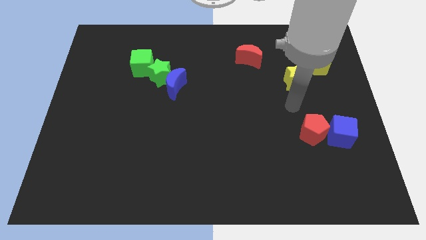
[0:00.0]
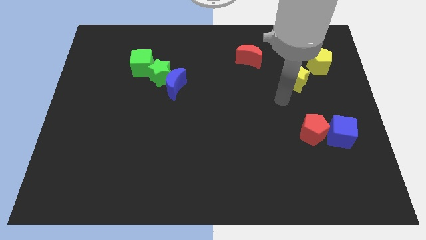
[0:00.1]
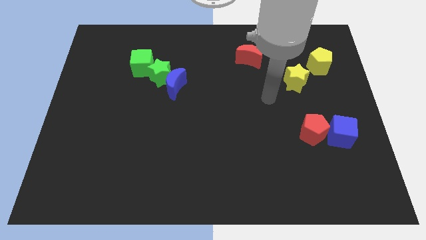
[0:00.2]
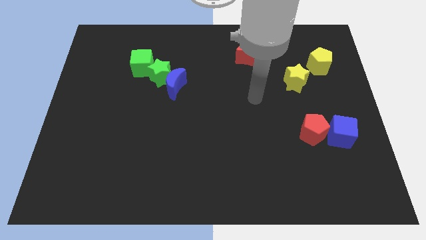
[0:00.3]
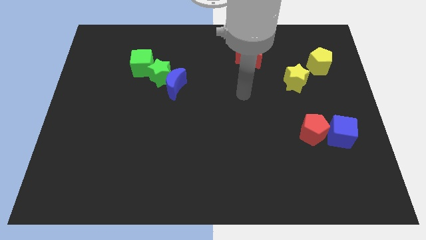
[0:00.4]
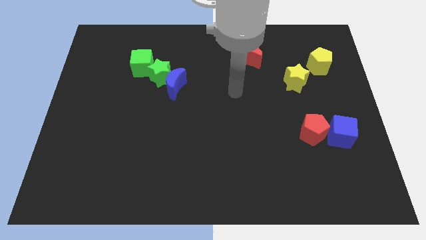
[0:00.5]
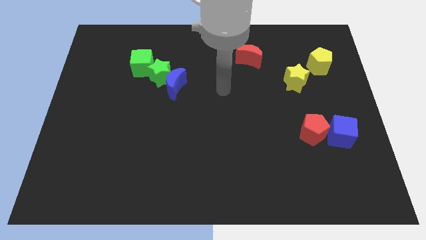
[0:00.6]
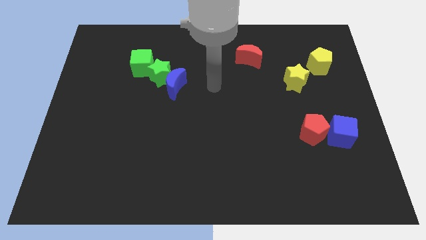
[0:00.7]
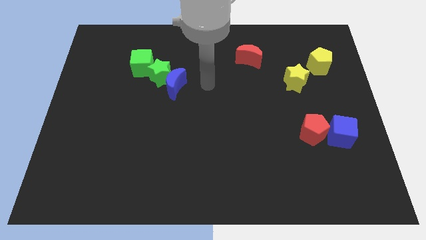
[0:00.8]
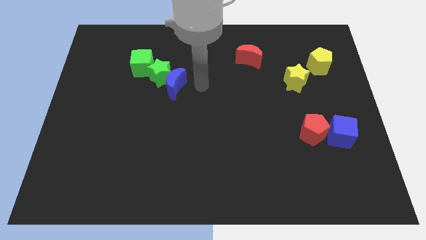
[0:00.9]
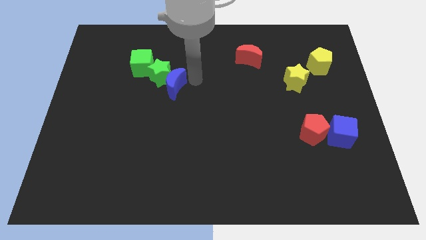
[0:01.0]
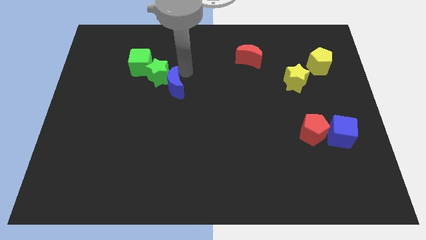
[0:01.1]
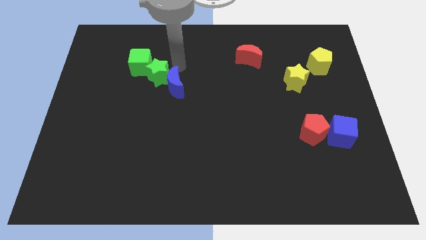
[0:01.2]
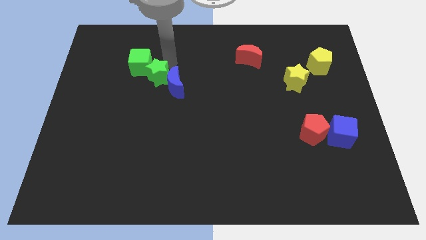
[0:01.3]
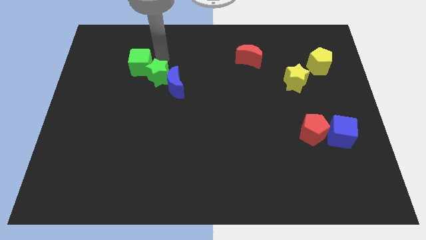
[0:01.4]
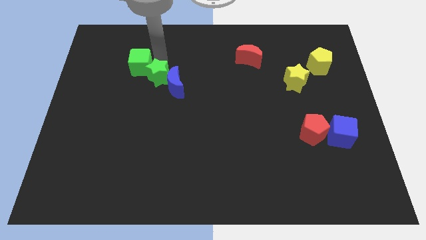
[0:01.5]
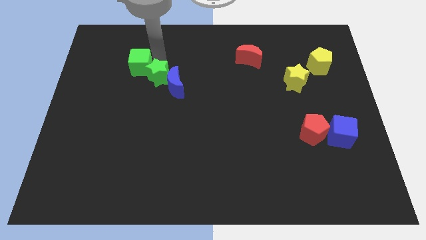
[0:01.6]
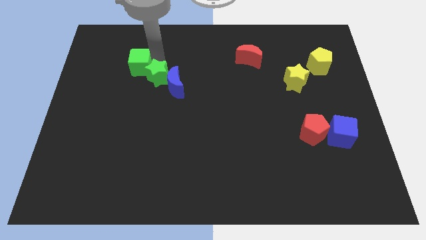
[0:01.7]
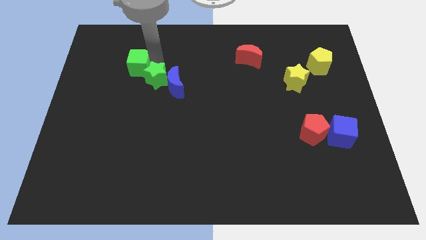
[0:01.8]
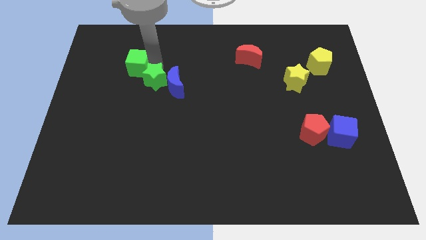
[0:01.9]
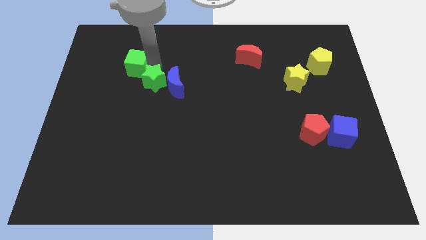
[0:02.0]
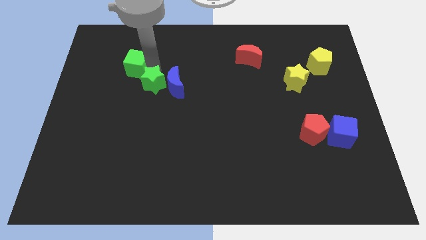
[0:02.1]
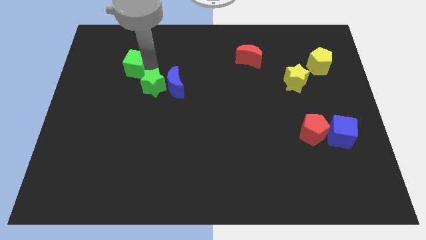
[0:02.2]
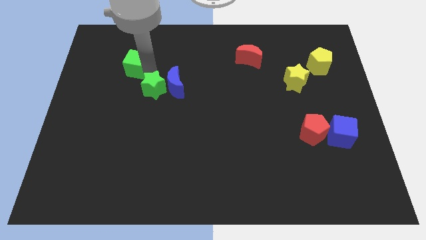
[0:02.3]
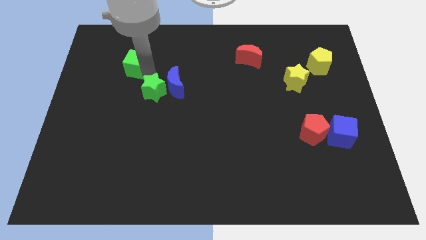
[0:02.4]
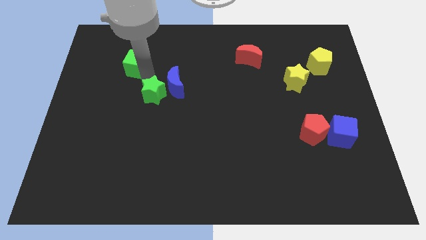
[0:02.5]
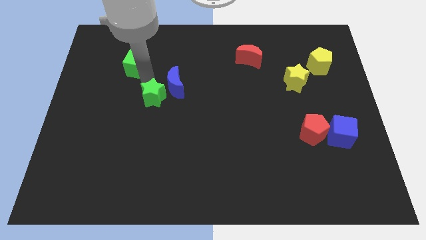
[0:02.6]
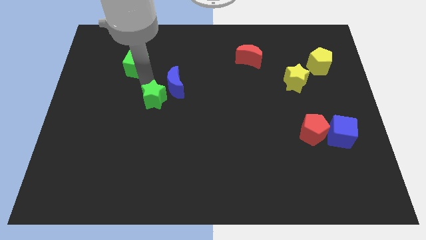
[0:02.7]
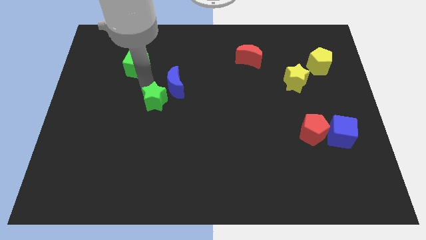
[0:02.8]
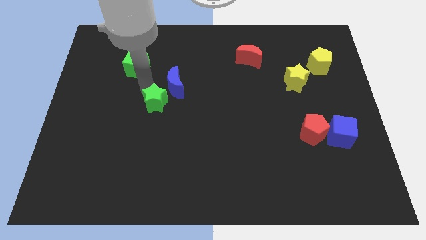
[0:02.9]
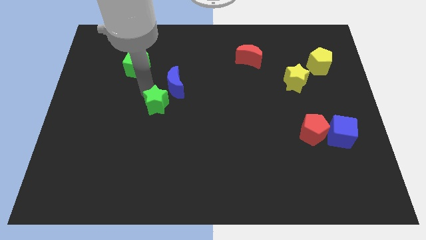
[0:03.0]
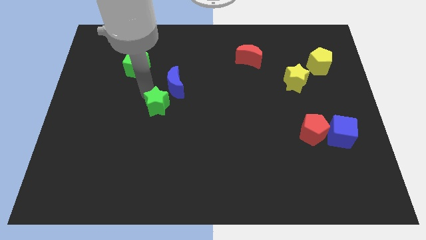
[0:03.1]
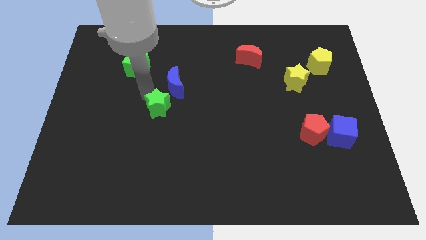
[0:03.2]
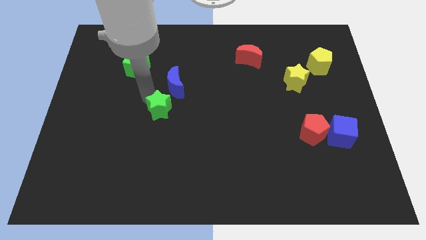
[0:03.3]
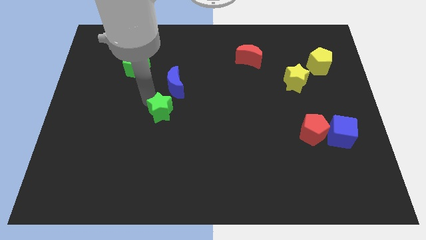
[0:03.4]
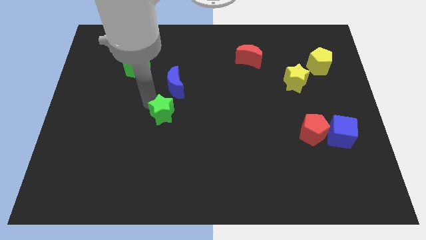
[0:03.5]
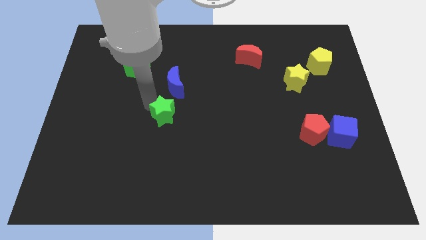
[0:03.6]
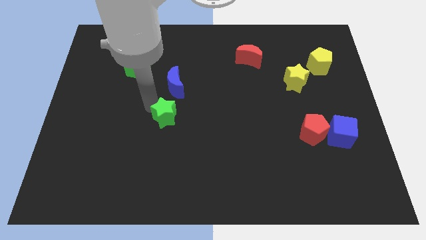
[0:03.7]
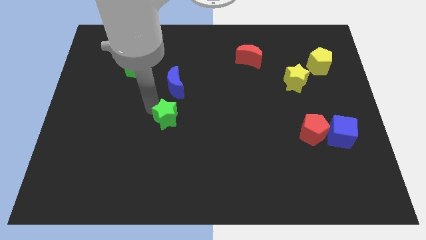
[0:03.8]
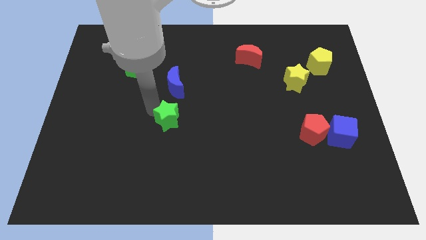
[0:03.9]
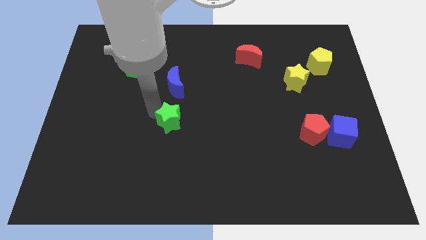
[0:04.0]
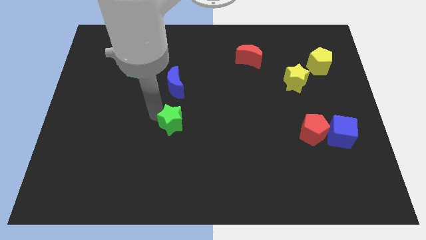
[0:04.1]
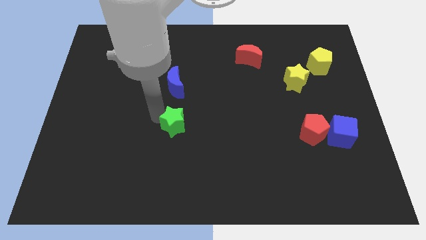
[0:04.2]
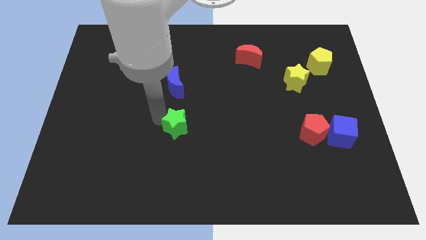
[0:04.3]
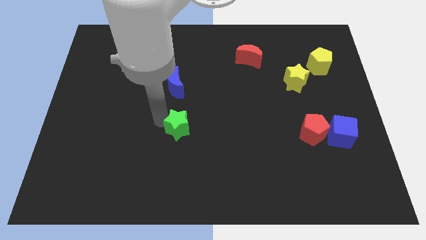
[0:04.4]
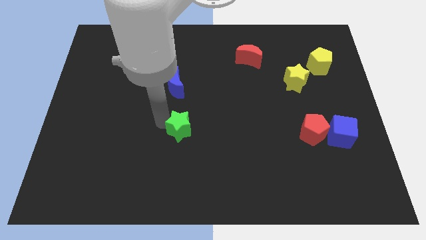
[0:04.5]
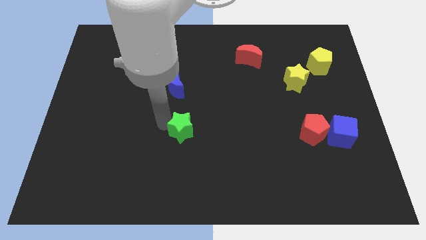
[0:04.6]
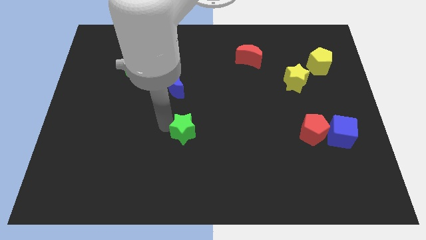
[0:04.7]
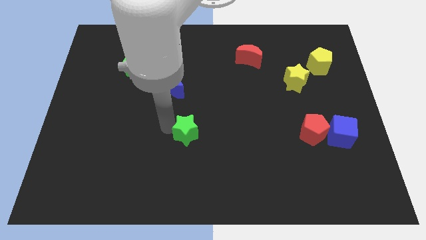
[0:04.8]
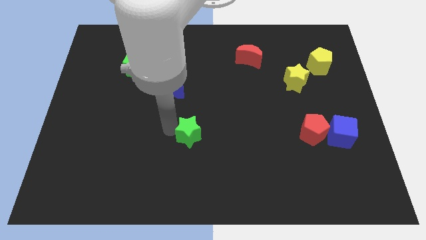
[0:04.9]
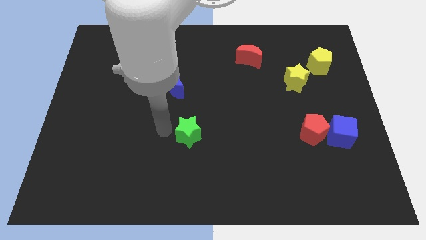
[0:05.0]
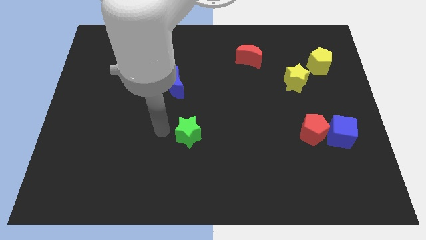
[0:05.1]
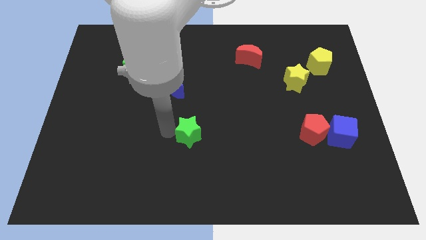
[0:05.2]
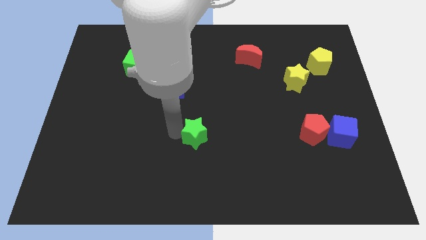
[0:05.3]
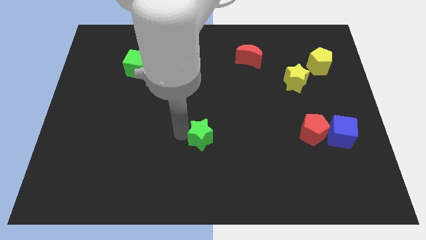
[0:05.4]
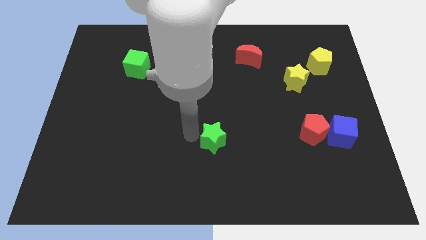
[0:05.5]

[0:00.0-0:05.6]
move the green star downwards and right

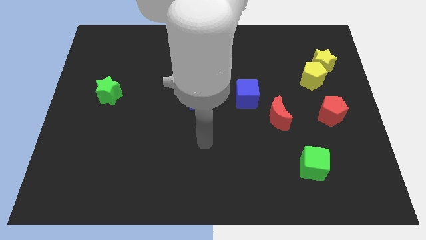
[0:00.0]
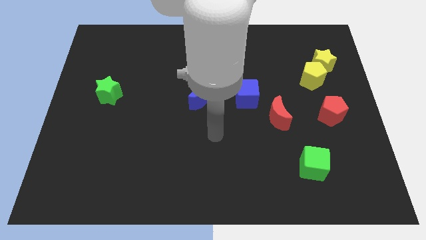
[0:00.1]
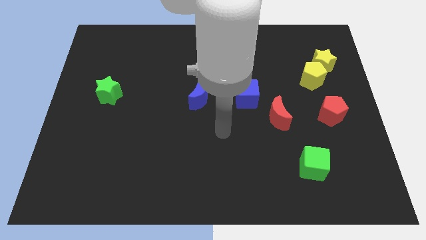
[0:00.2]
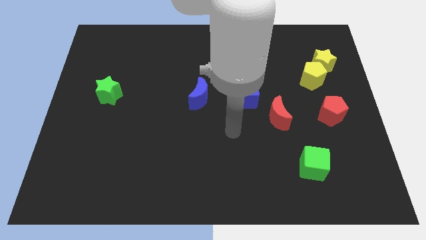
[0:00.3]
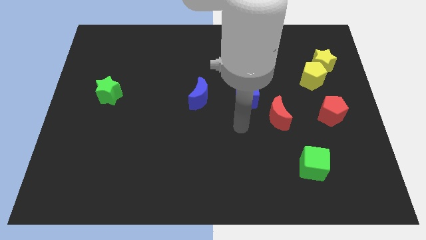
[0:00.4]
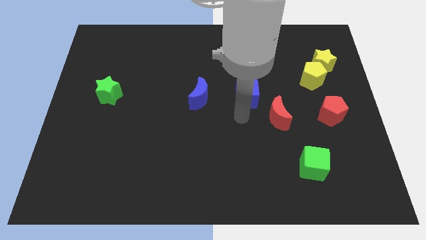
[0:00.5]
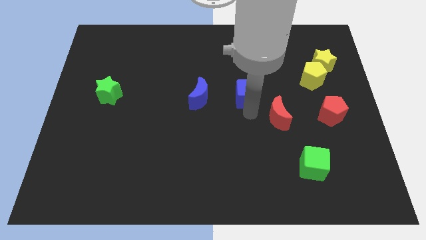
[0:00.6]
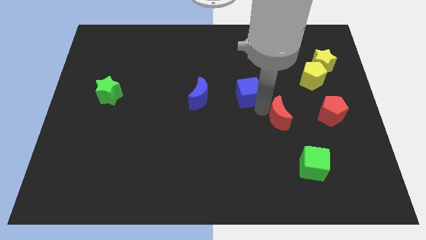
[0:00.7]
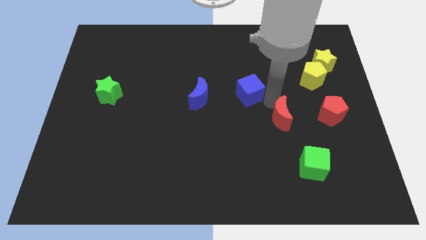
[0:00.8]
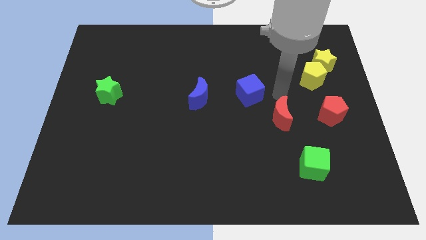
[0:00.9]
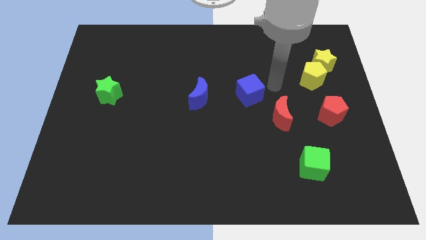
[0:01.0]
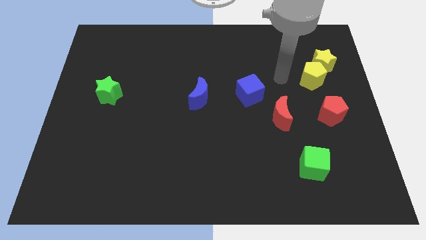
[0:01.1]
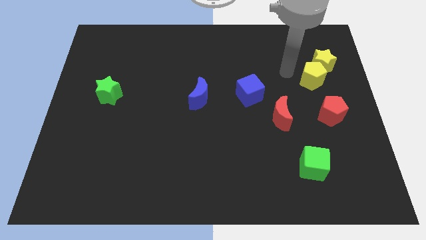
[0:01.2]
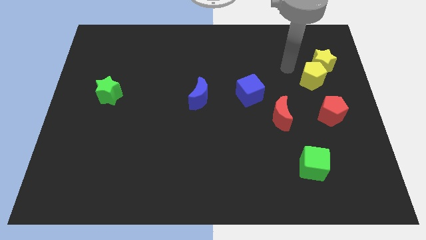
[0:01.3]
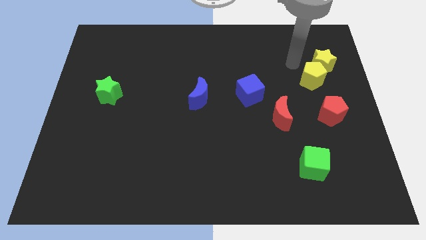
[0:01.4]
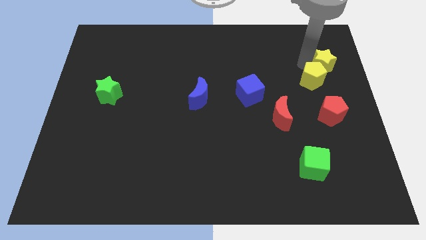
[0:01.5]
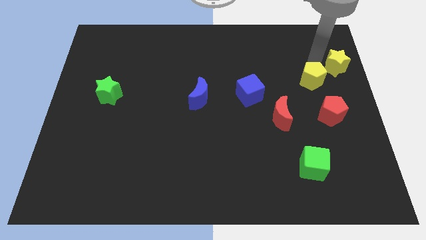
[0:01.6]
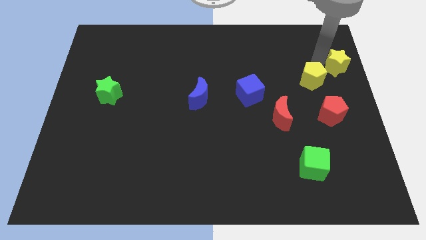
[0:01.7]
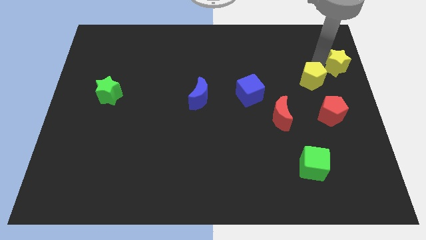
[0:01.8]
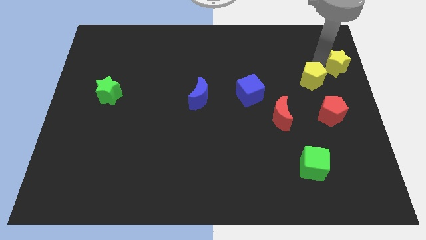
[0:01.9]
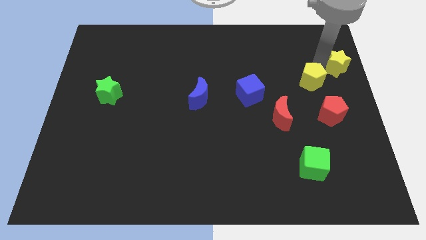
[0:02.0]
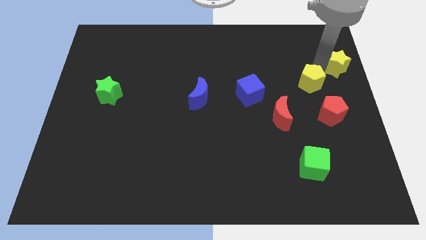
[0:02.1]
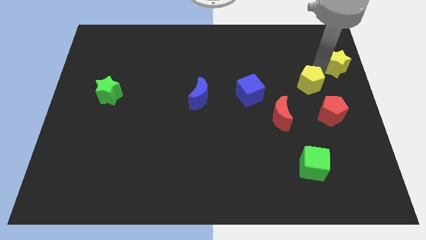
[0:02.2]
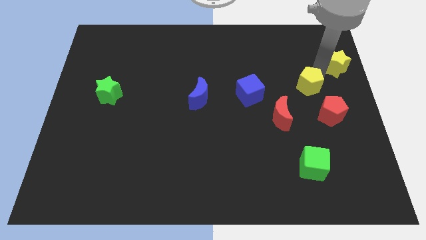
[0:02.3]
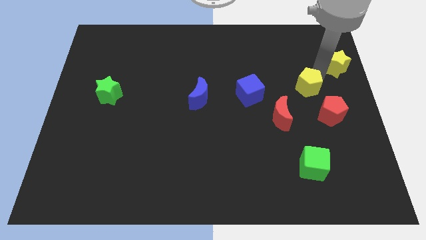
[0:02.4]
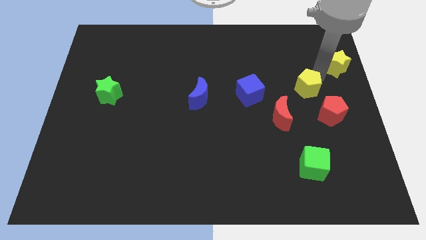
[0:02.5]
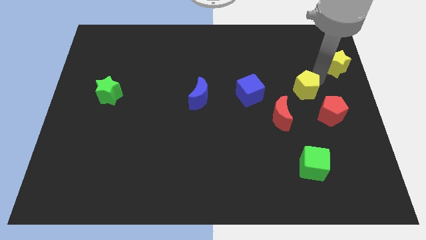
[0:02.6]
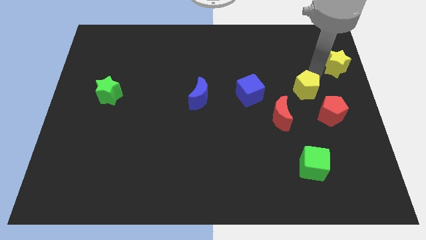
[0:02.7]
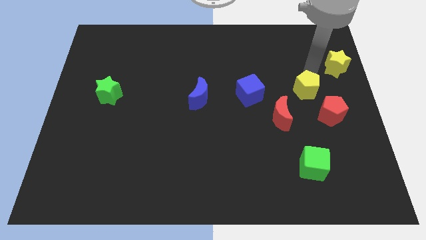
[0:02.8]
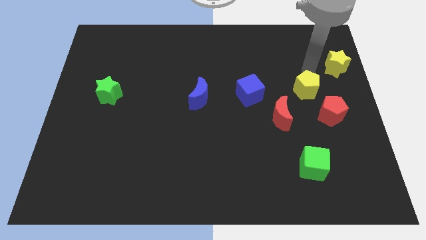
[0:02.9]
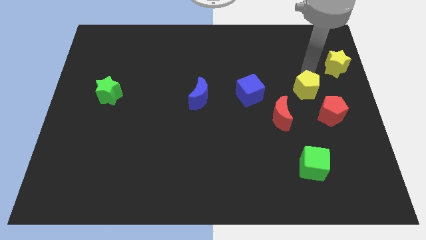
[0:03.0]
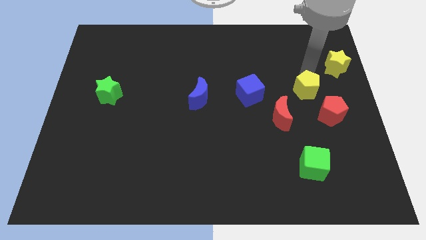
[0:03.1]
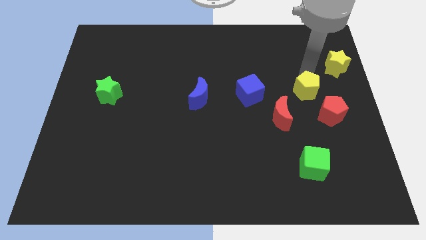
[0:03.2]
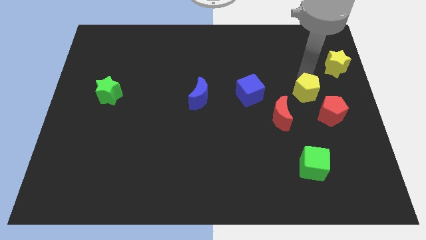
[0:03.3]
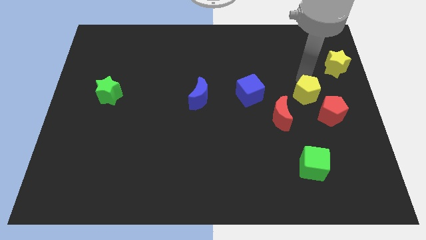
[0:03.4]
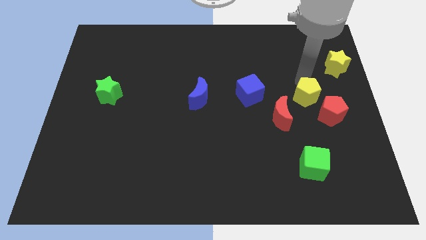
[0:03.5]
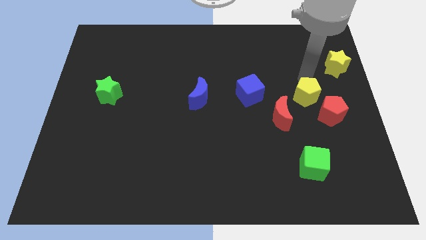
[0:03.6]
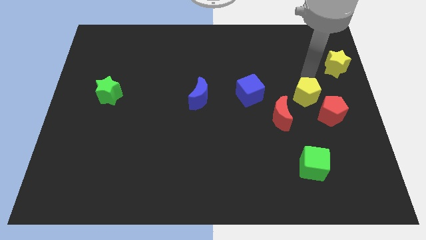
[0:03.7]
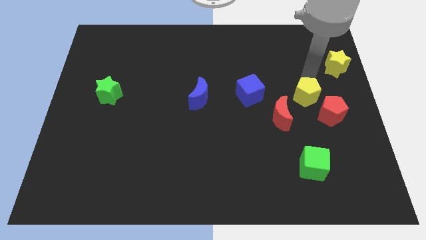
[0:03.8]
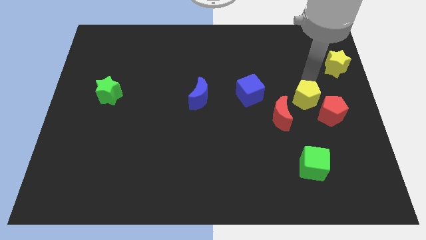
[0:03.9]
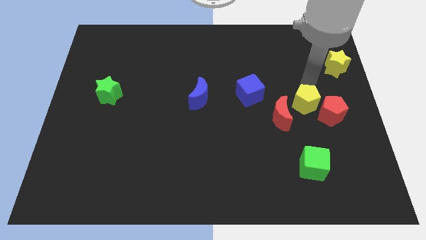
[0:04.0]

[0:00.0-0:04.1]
slide the yellow pentagon somewhat down
